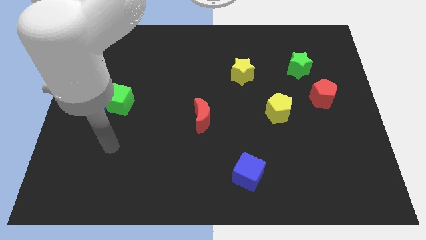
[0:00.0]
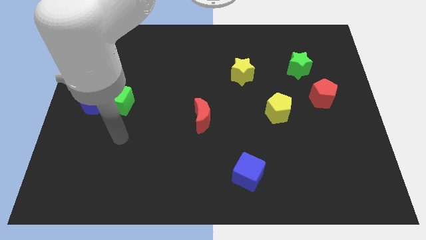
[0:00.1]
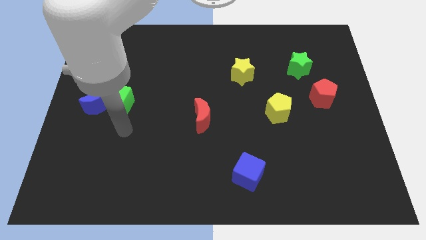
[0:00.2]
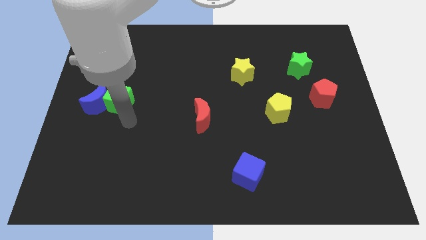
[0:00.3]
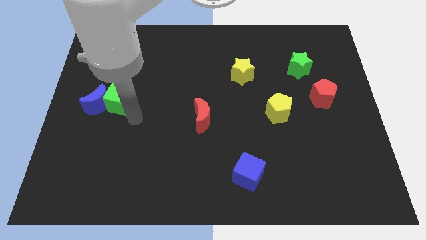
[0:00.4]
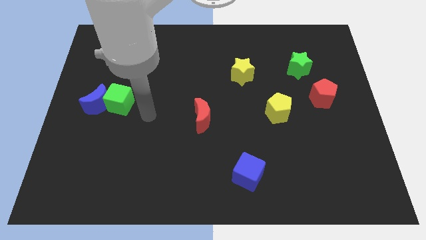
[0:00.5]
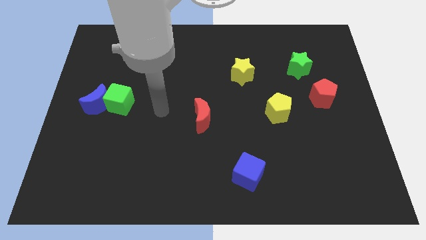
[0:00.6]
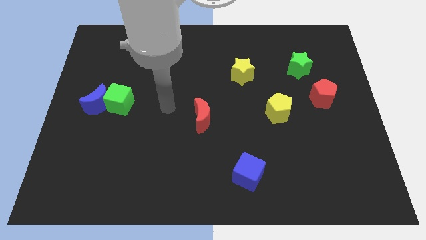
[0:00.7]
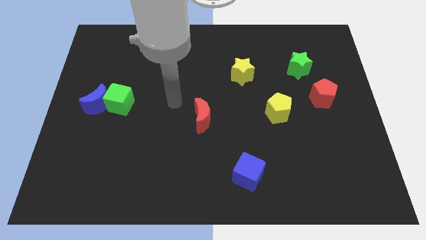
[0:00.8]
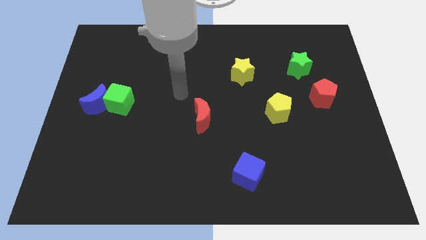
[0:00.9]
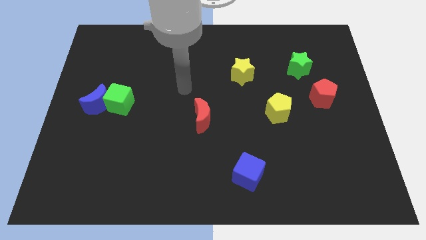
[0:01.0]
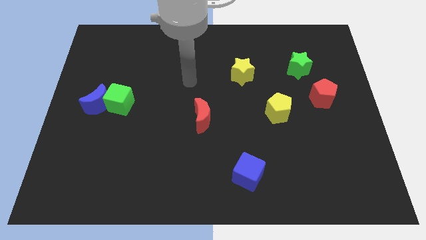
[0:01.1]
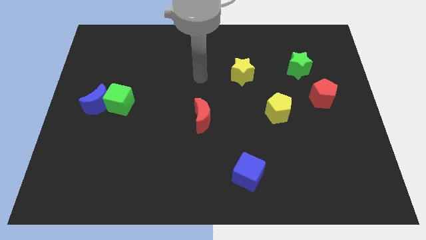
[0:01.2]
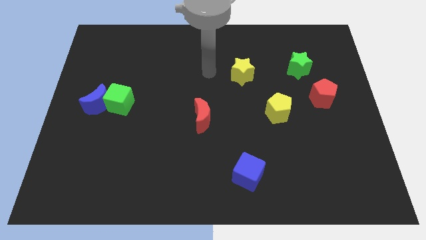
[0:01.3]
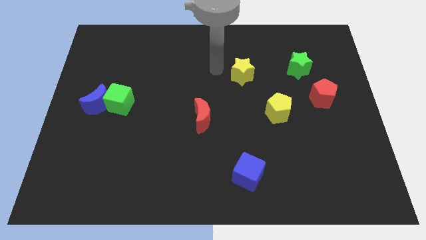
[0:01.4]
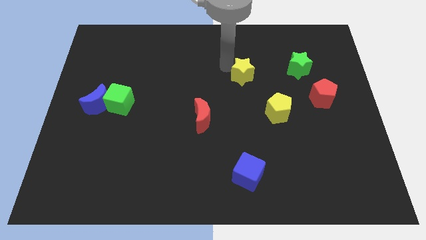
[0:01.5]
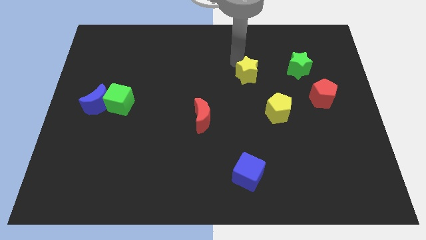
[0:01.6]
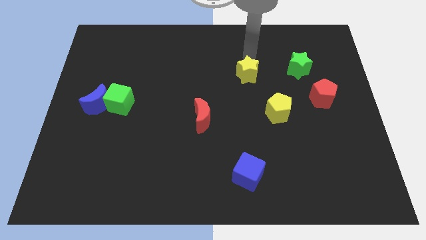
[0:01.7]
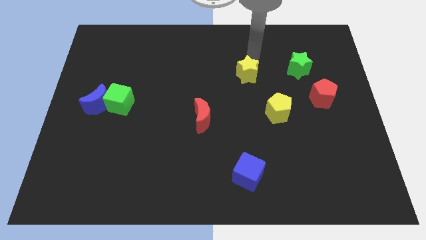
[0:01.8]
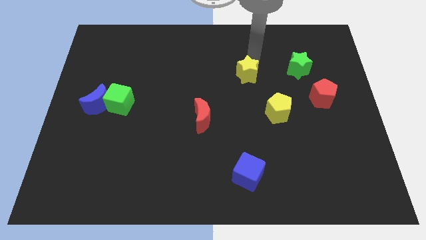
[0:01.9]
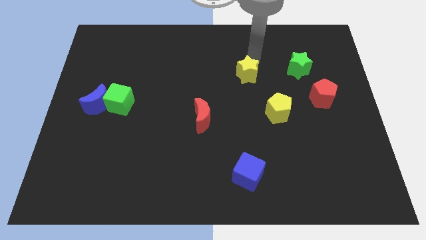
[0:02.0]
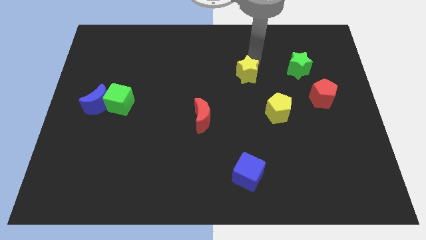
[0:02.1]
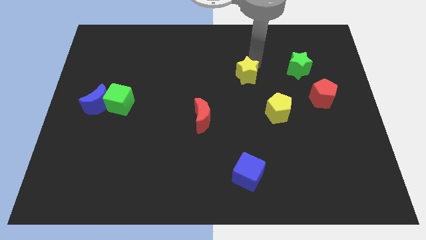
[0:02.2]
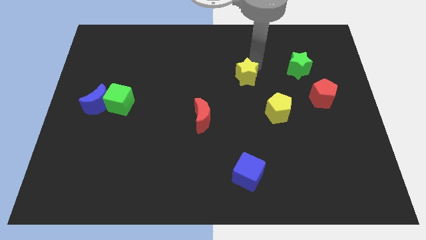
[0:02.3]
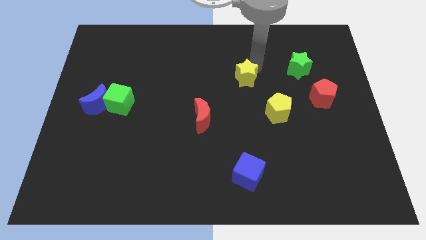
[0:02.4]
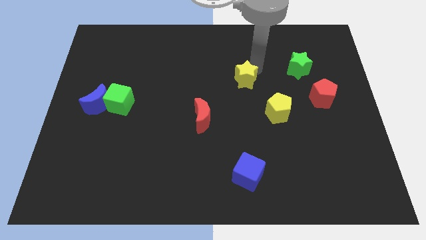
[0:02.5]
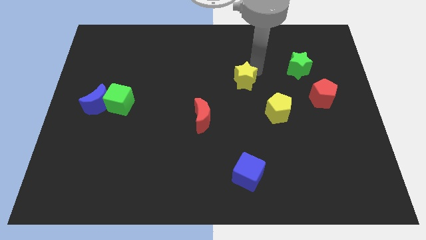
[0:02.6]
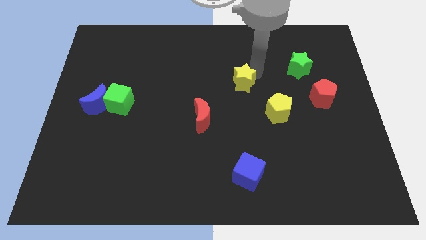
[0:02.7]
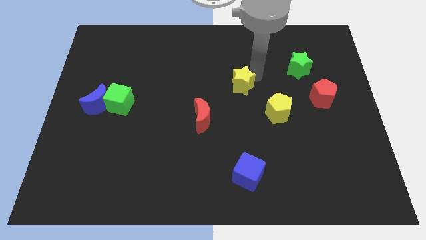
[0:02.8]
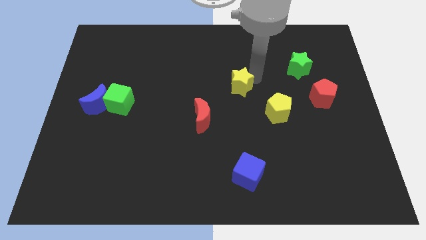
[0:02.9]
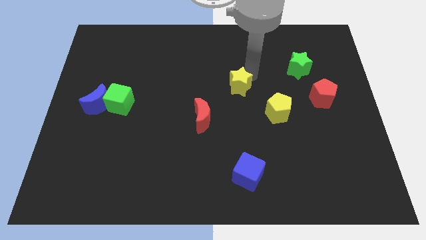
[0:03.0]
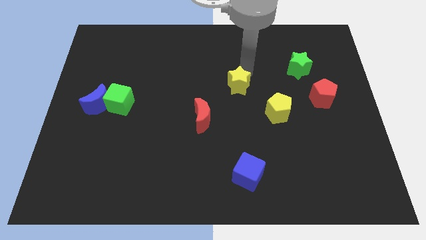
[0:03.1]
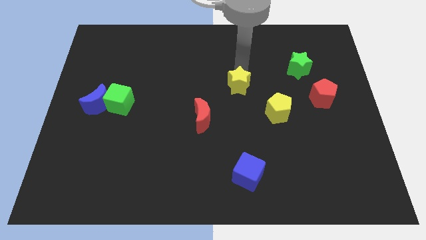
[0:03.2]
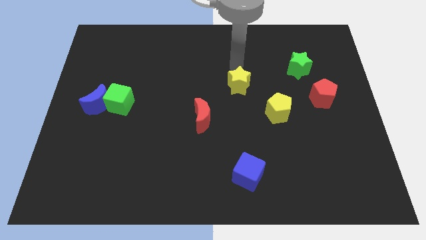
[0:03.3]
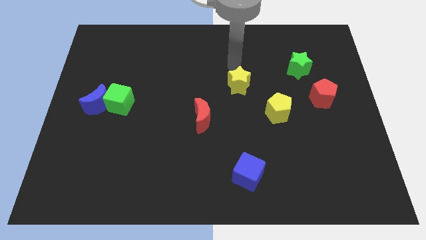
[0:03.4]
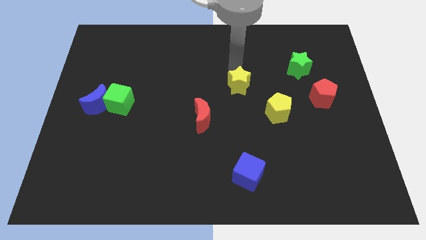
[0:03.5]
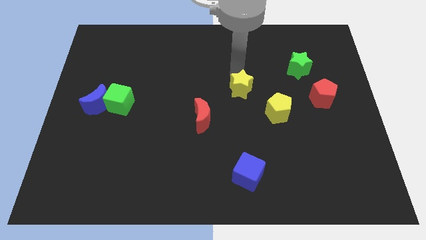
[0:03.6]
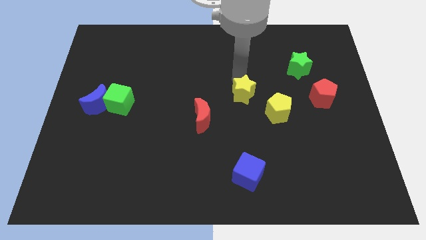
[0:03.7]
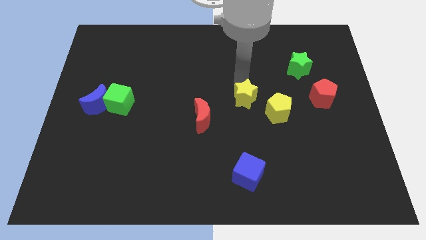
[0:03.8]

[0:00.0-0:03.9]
slightly slide the yellow star down

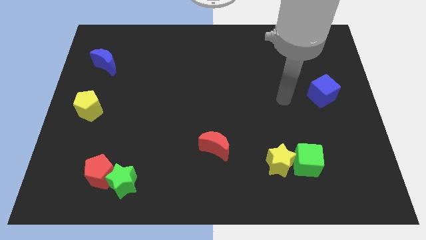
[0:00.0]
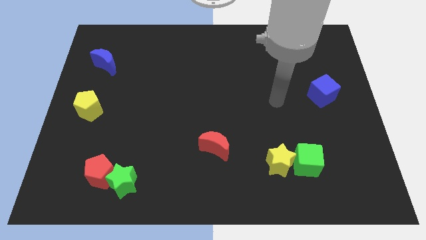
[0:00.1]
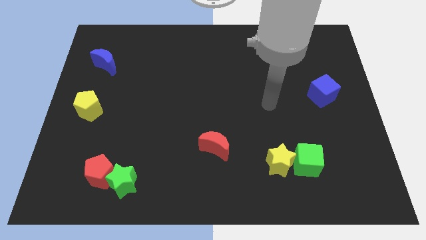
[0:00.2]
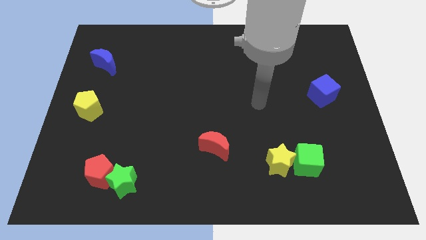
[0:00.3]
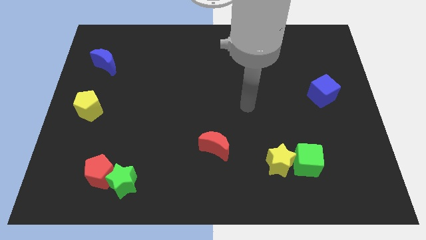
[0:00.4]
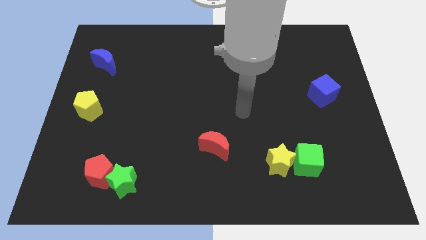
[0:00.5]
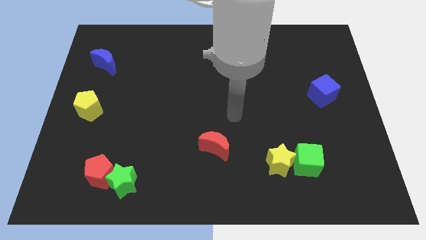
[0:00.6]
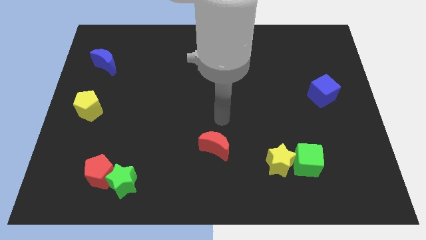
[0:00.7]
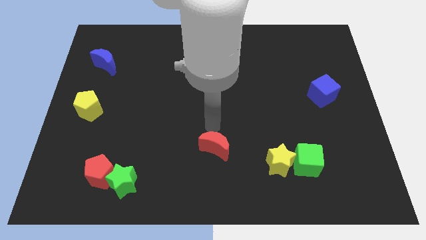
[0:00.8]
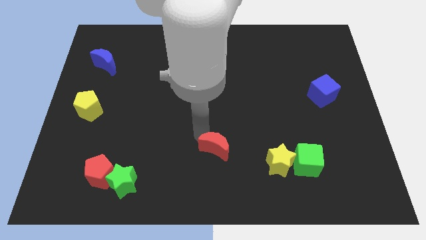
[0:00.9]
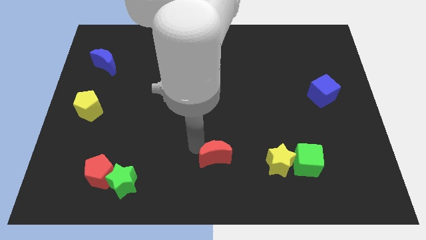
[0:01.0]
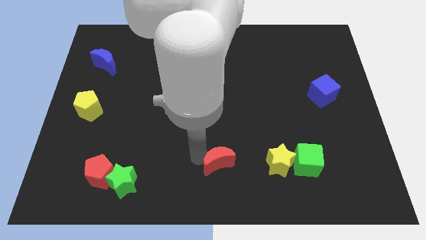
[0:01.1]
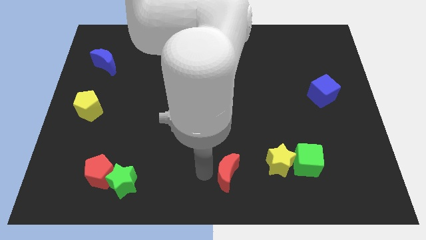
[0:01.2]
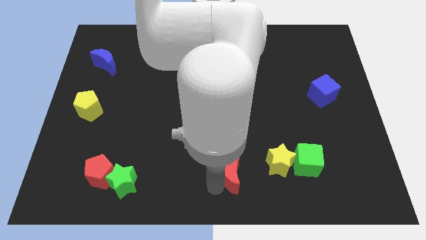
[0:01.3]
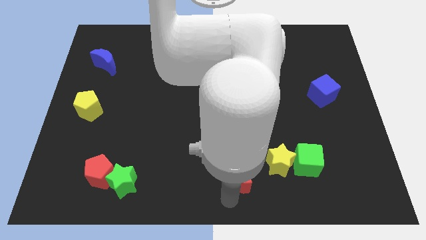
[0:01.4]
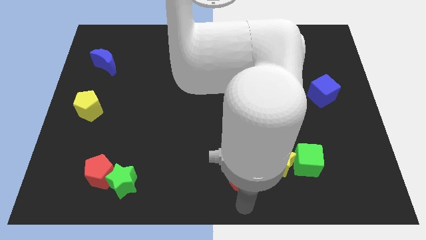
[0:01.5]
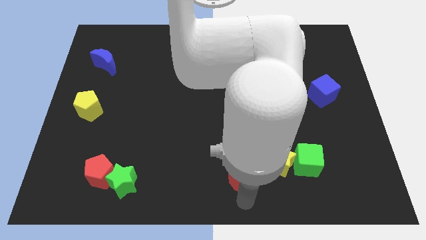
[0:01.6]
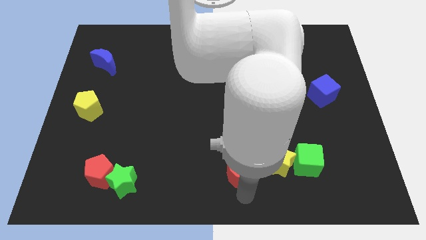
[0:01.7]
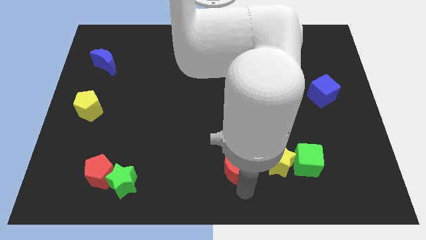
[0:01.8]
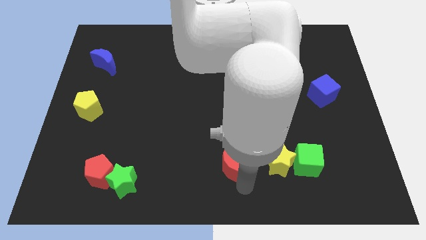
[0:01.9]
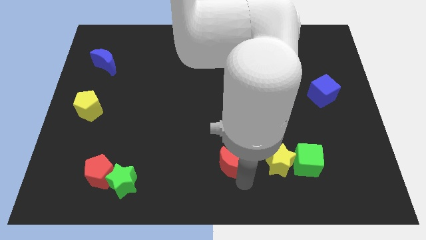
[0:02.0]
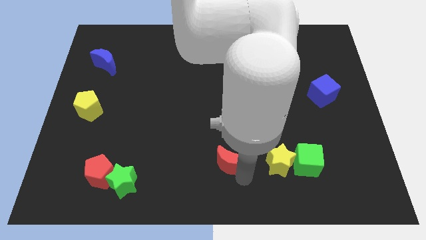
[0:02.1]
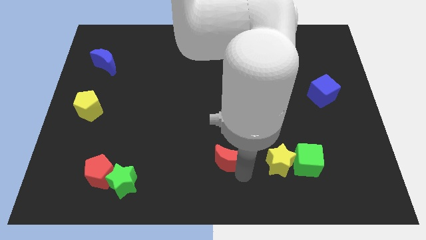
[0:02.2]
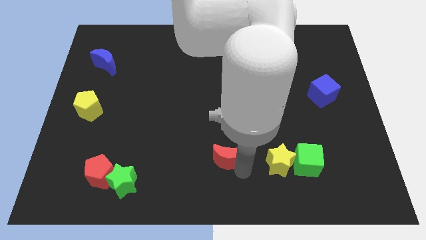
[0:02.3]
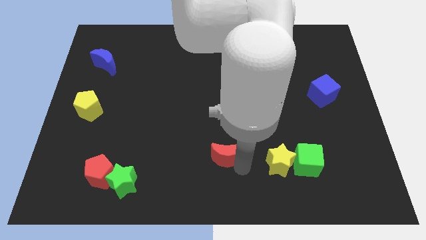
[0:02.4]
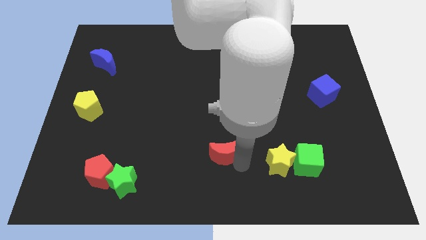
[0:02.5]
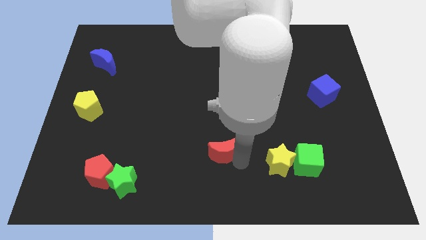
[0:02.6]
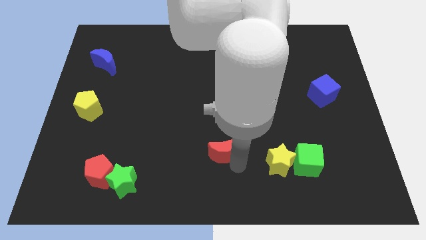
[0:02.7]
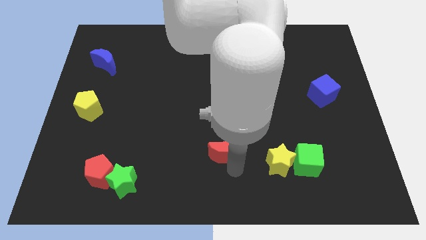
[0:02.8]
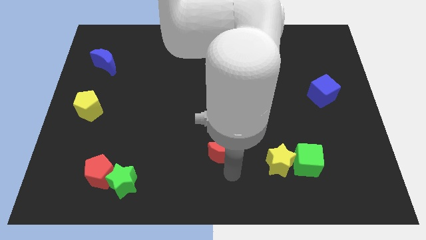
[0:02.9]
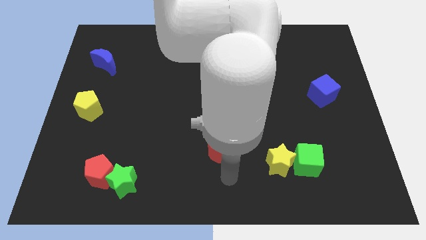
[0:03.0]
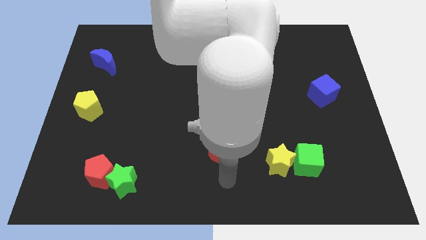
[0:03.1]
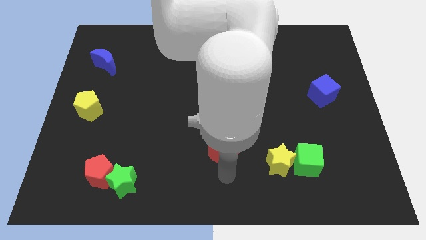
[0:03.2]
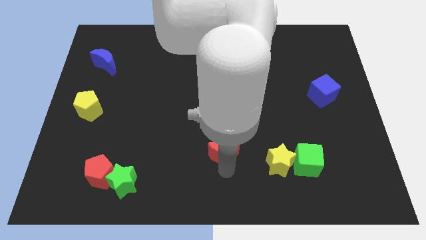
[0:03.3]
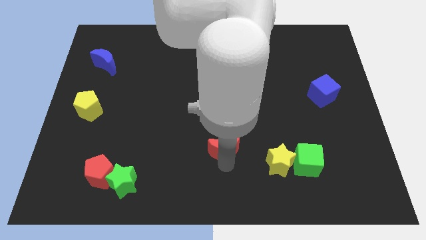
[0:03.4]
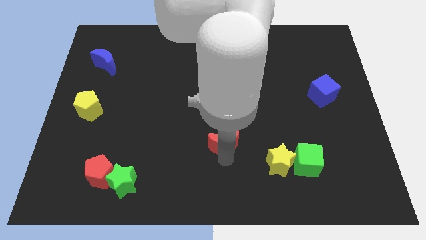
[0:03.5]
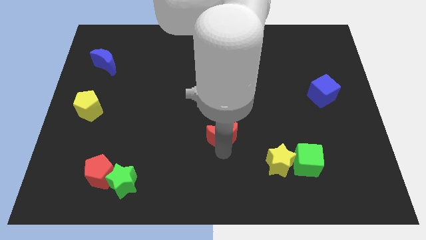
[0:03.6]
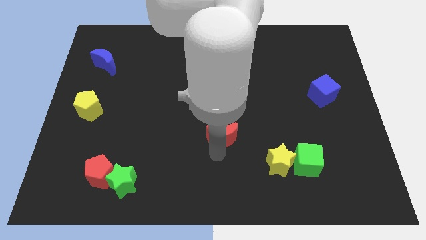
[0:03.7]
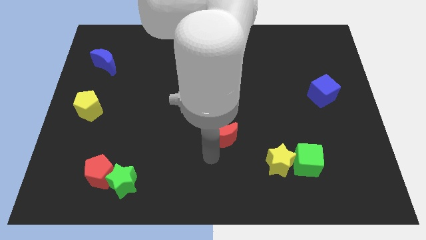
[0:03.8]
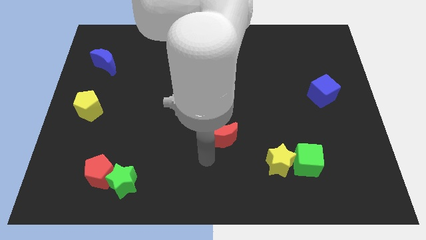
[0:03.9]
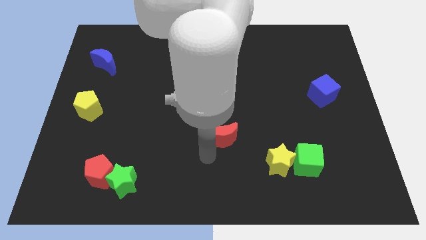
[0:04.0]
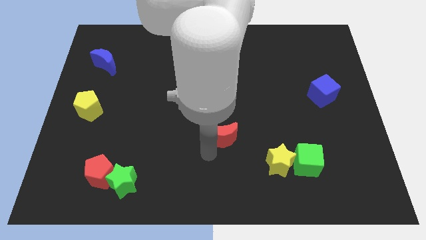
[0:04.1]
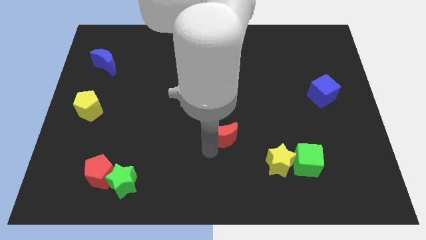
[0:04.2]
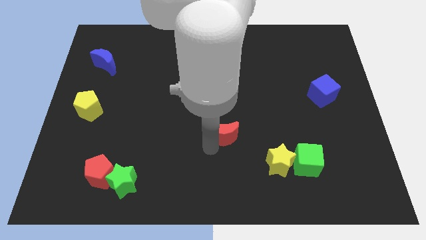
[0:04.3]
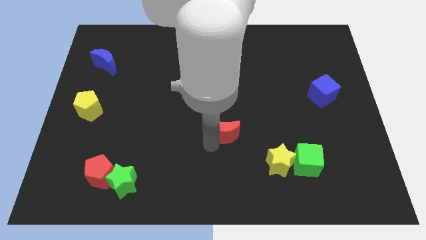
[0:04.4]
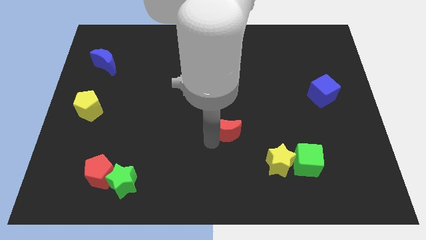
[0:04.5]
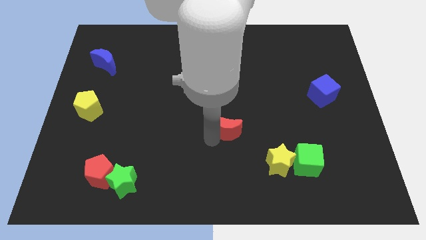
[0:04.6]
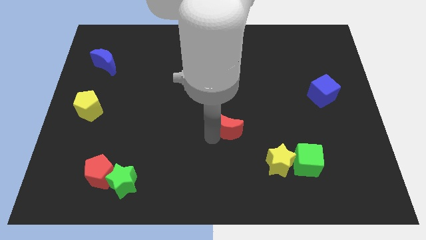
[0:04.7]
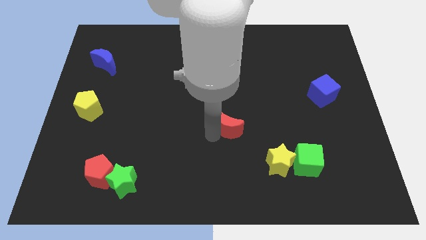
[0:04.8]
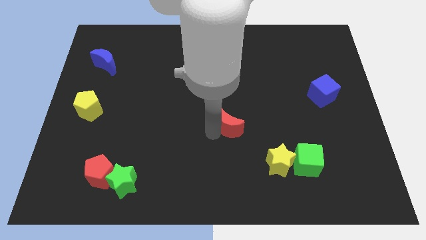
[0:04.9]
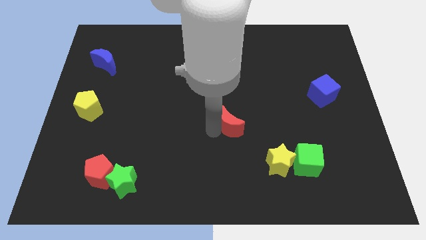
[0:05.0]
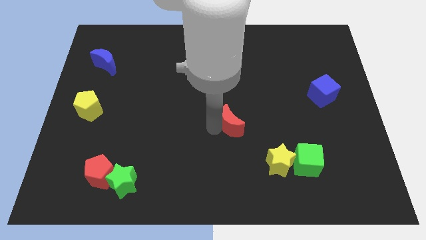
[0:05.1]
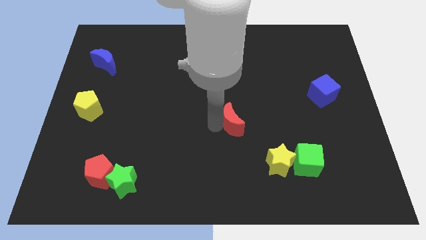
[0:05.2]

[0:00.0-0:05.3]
slide the red moon diagonally up and to the right a little
